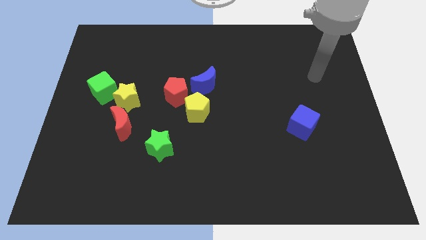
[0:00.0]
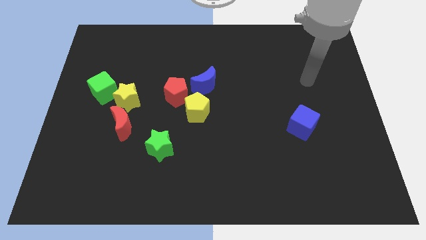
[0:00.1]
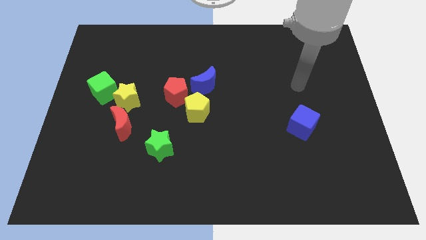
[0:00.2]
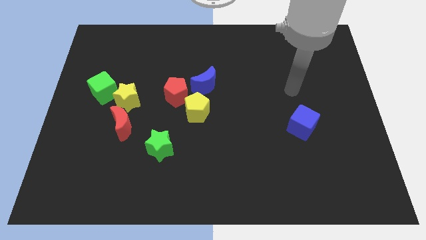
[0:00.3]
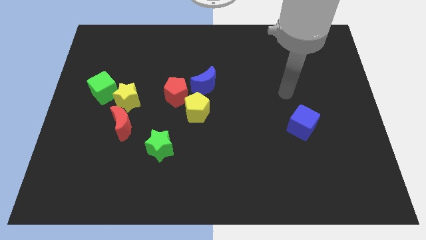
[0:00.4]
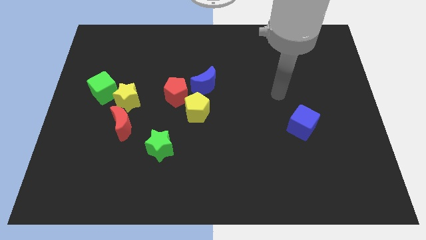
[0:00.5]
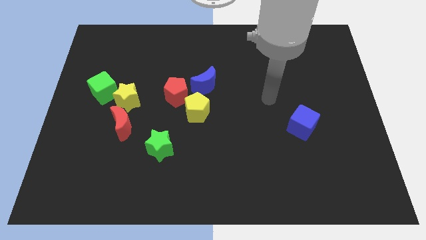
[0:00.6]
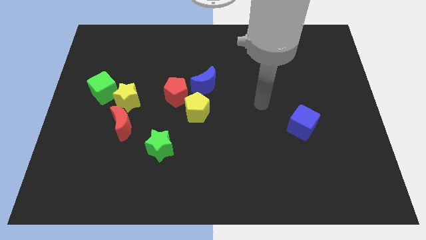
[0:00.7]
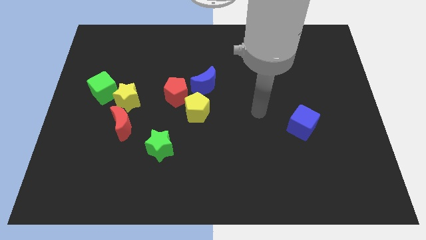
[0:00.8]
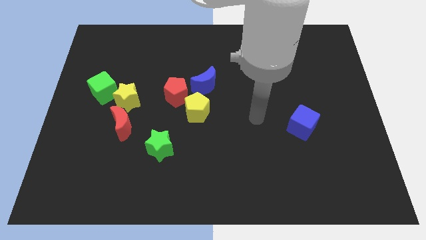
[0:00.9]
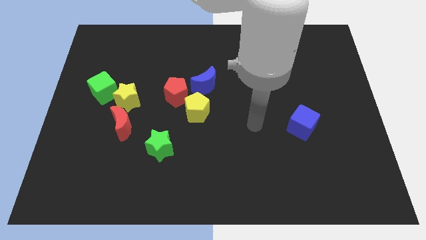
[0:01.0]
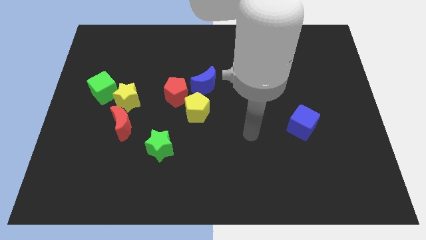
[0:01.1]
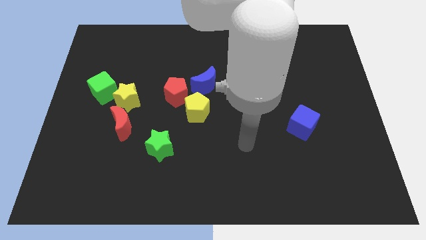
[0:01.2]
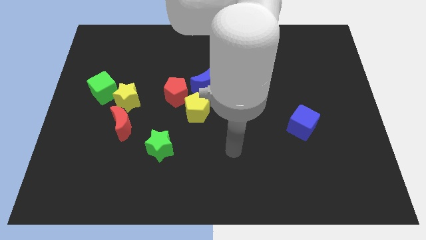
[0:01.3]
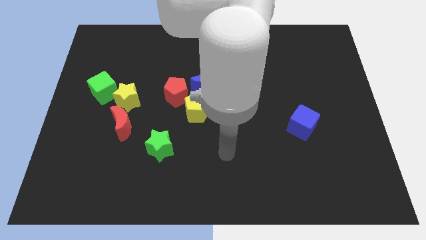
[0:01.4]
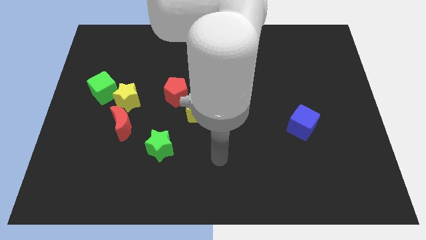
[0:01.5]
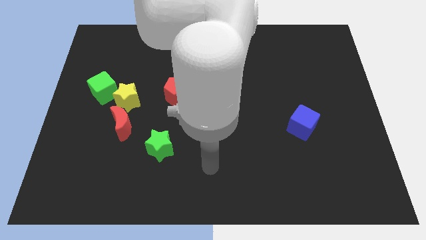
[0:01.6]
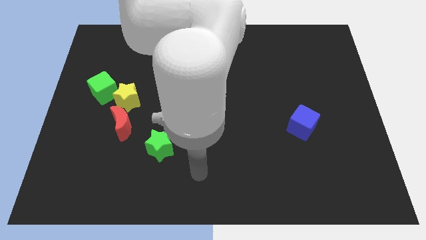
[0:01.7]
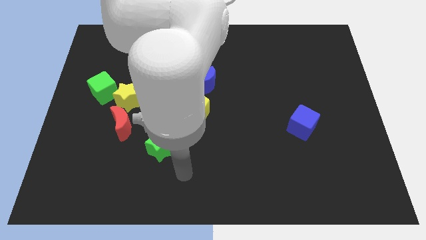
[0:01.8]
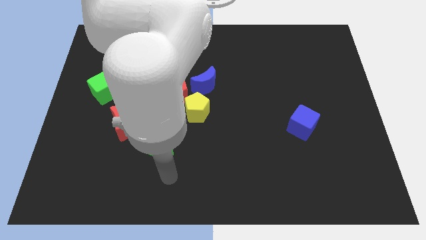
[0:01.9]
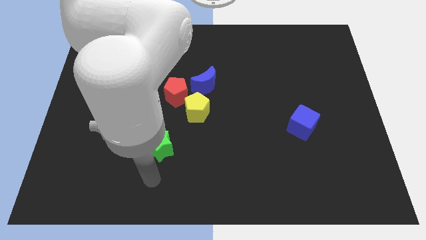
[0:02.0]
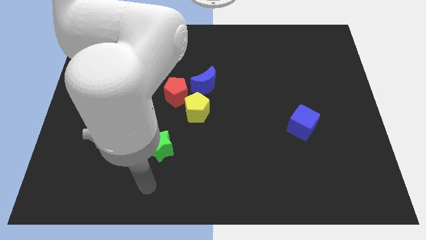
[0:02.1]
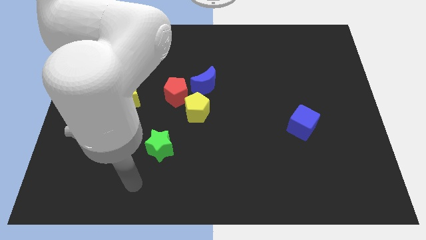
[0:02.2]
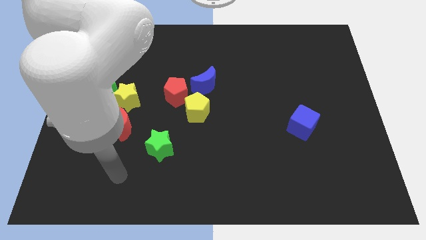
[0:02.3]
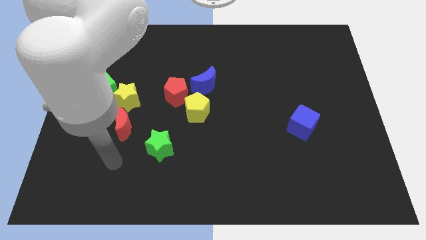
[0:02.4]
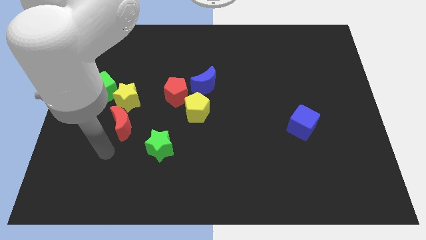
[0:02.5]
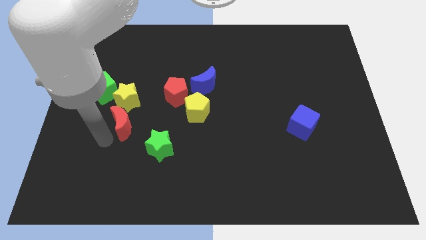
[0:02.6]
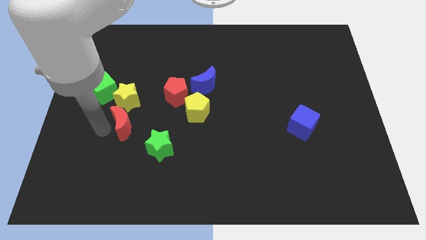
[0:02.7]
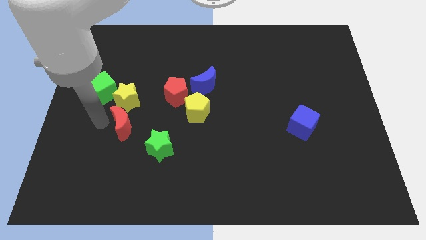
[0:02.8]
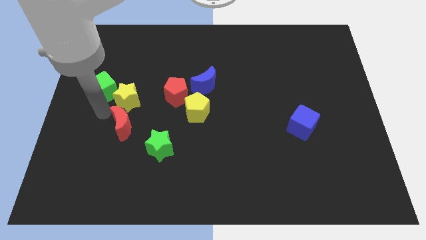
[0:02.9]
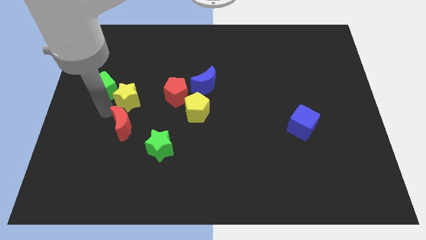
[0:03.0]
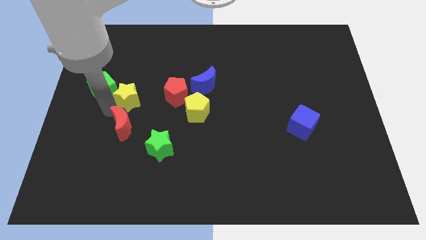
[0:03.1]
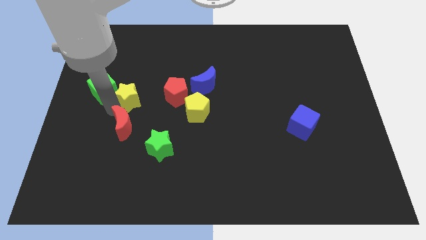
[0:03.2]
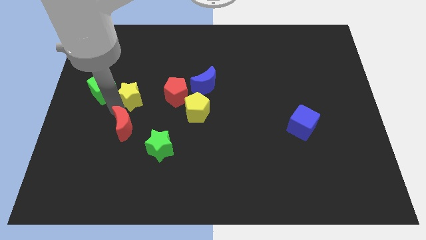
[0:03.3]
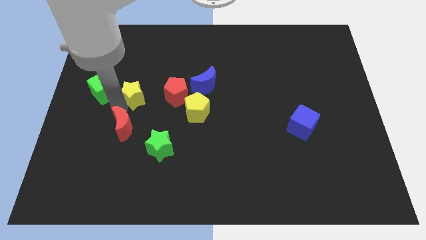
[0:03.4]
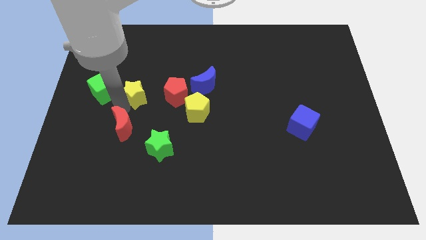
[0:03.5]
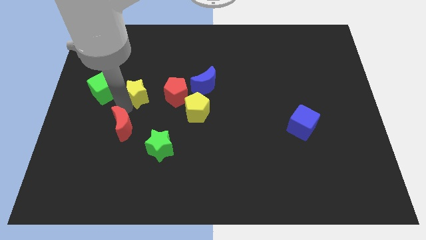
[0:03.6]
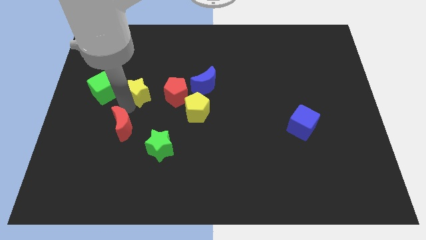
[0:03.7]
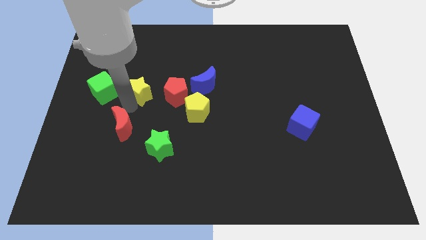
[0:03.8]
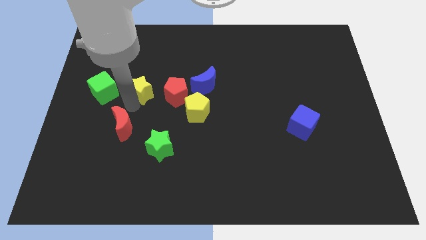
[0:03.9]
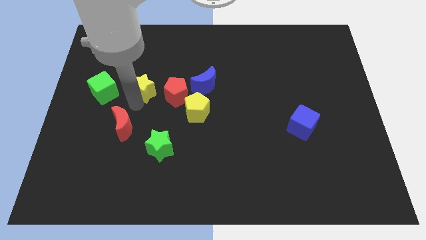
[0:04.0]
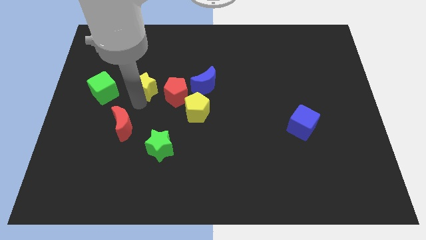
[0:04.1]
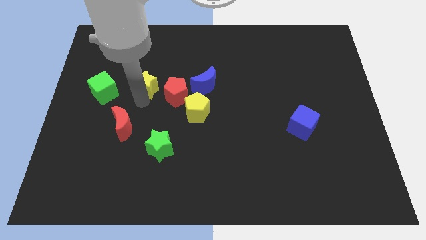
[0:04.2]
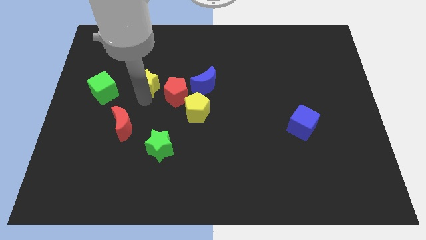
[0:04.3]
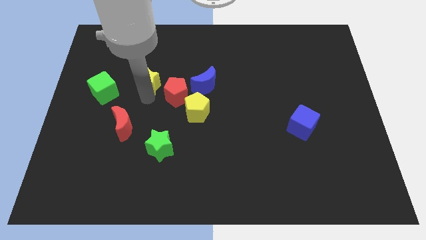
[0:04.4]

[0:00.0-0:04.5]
slide the yellow star upwards and to the right a little

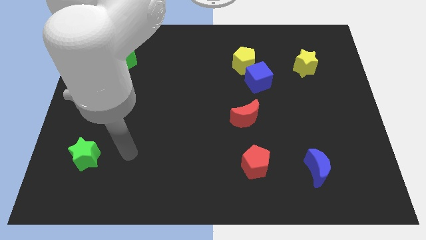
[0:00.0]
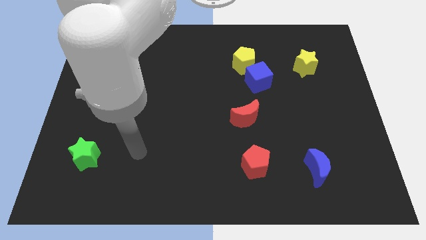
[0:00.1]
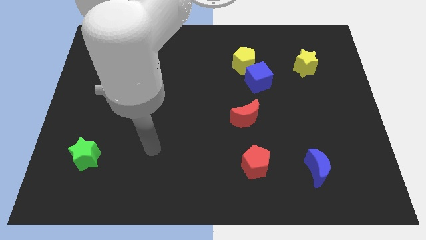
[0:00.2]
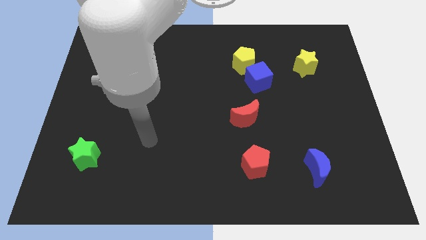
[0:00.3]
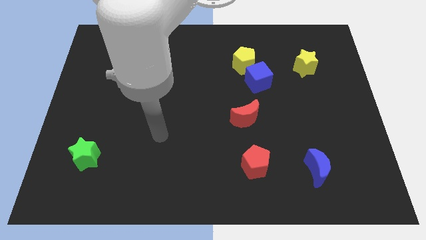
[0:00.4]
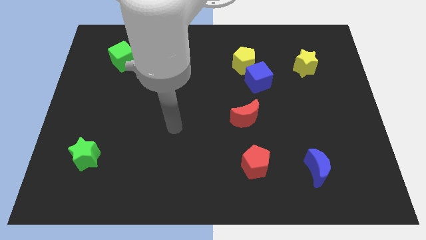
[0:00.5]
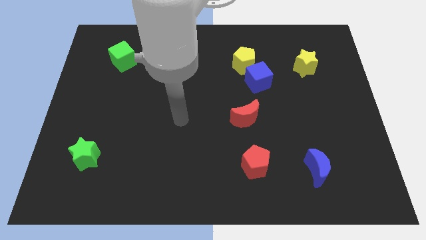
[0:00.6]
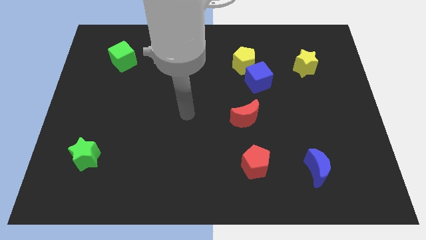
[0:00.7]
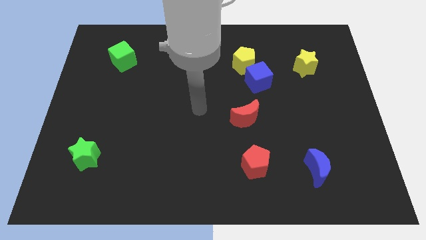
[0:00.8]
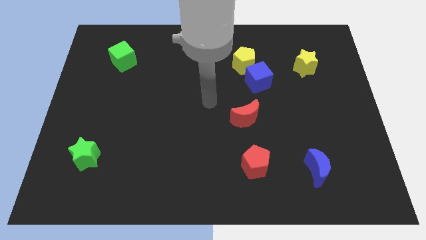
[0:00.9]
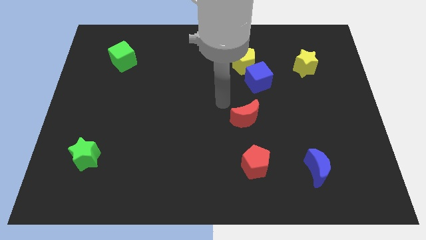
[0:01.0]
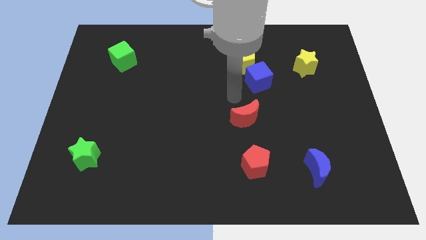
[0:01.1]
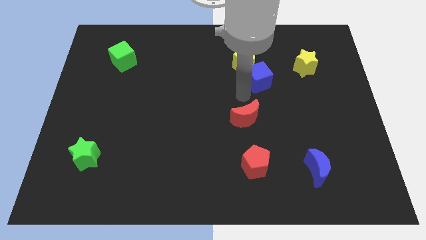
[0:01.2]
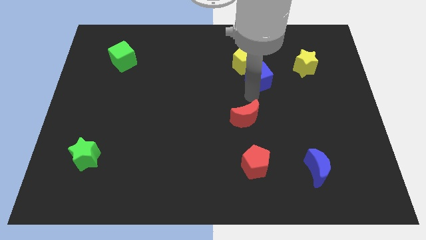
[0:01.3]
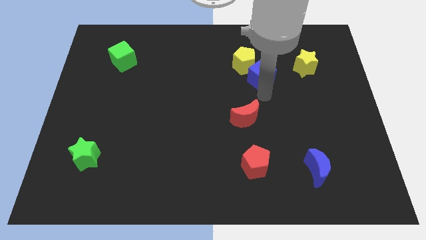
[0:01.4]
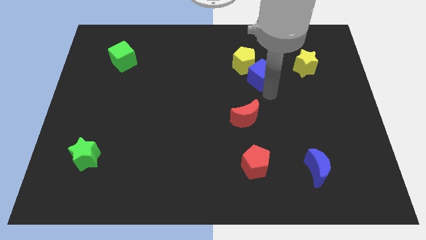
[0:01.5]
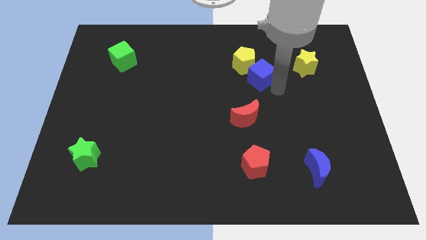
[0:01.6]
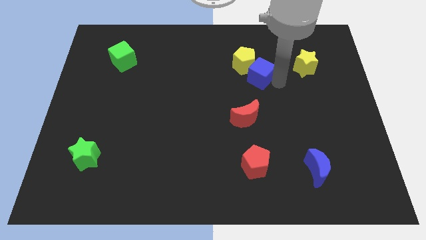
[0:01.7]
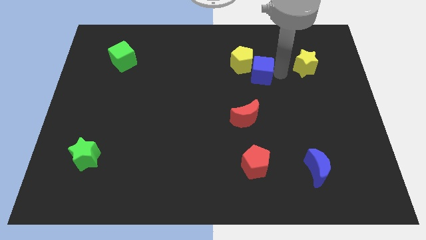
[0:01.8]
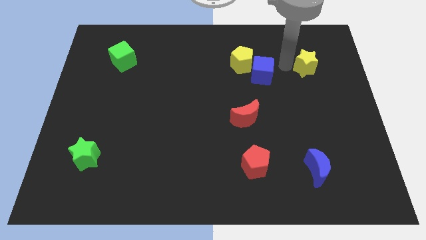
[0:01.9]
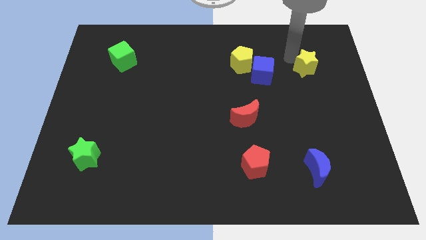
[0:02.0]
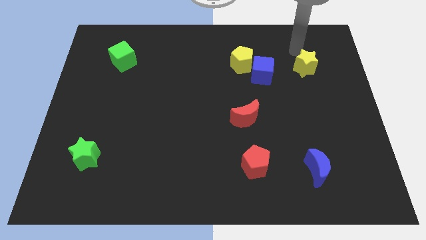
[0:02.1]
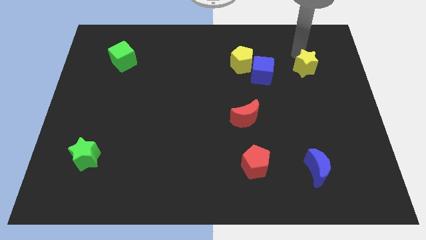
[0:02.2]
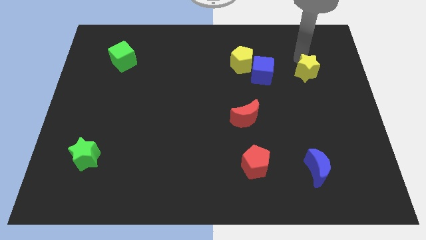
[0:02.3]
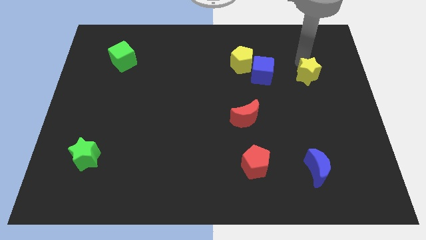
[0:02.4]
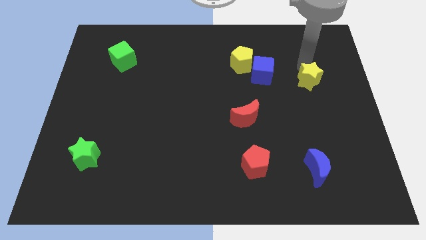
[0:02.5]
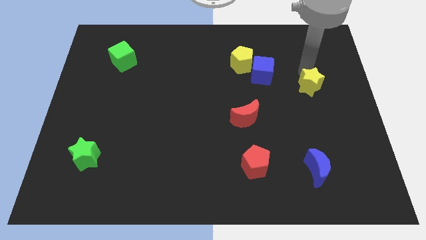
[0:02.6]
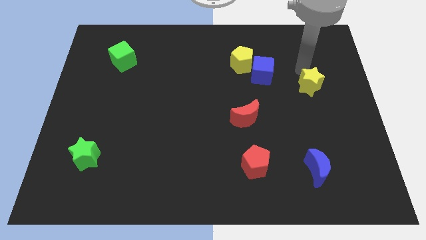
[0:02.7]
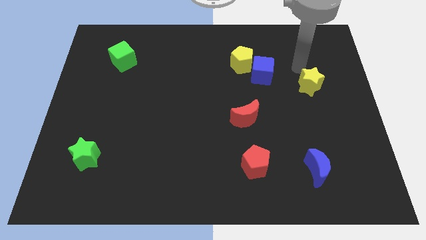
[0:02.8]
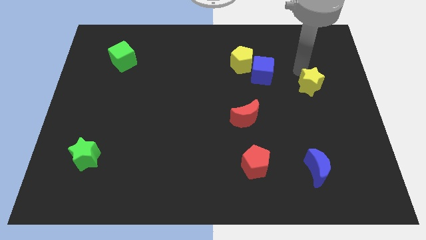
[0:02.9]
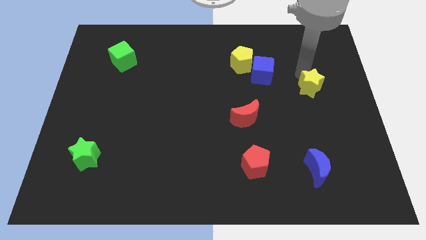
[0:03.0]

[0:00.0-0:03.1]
push the yellow star down a little bit

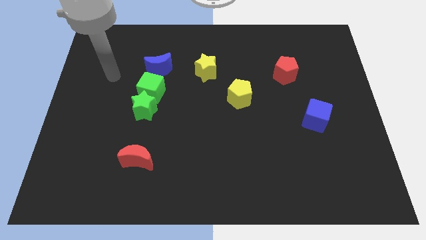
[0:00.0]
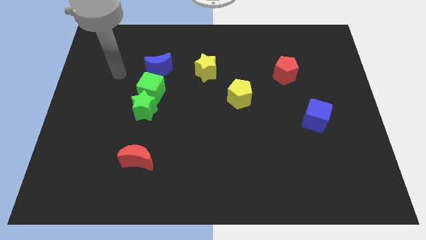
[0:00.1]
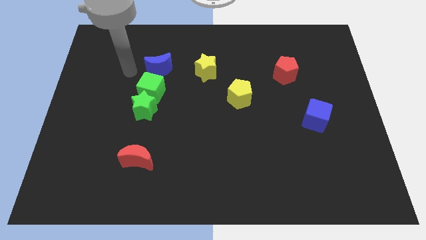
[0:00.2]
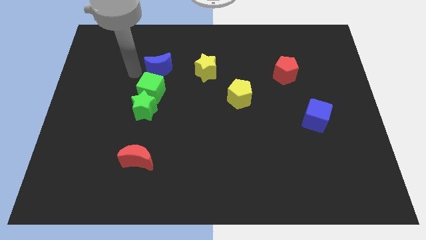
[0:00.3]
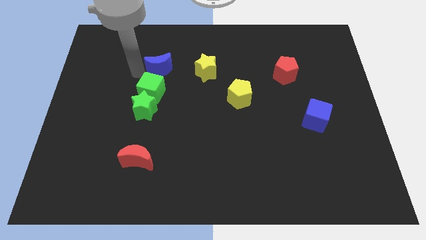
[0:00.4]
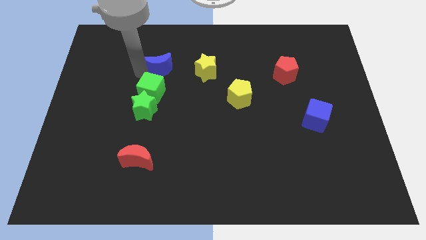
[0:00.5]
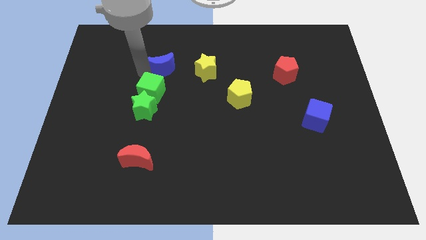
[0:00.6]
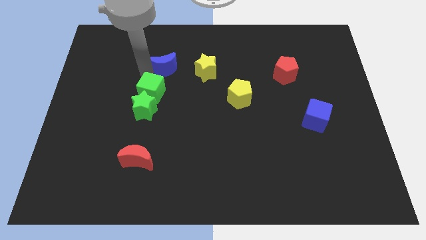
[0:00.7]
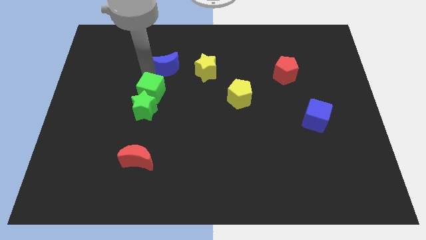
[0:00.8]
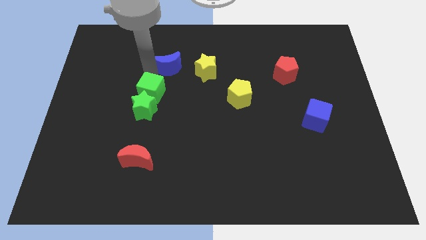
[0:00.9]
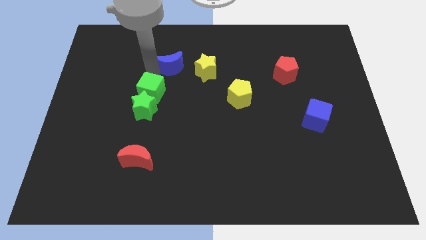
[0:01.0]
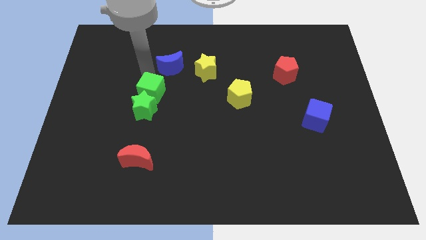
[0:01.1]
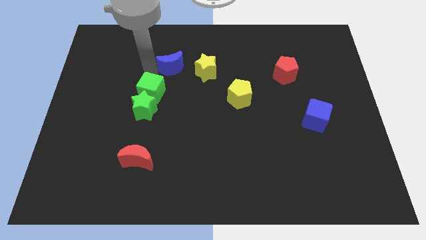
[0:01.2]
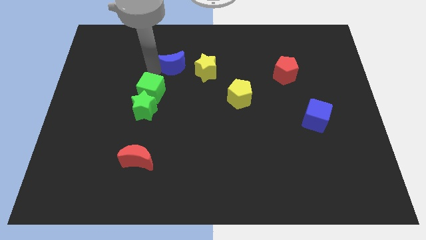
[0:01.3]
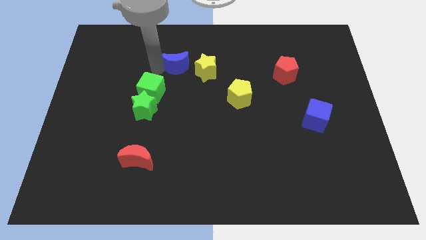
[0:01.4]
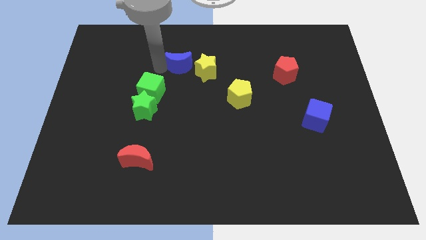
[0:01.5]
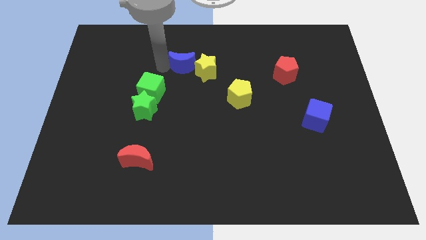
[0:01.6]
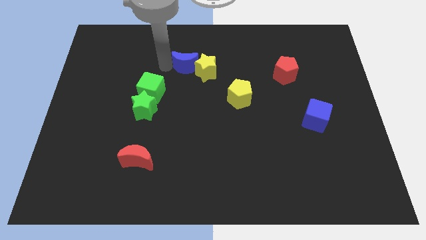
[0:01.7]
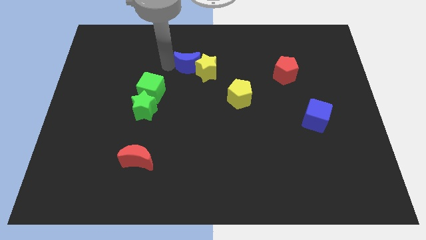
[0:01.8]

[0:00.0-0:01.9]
slide the blue moon slightly right
